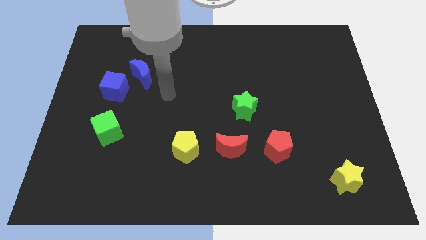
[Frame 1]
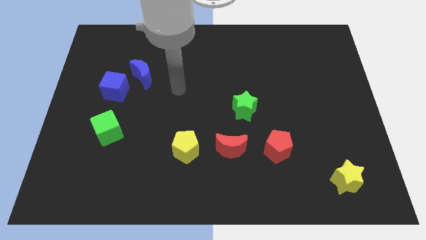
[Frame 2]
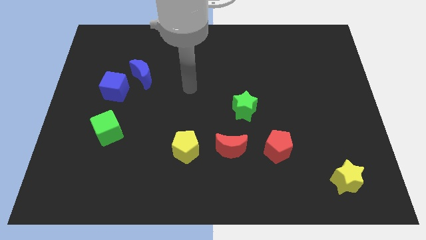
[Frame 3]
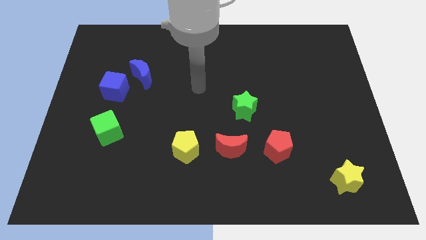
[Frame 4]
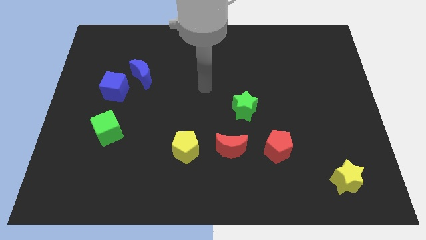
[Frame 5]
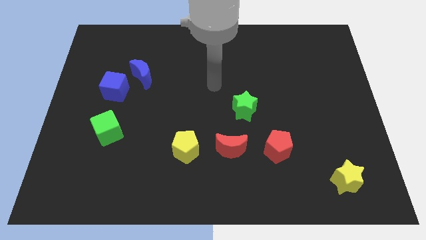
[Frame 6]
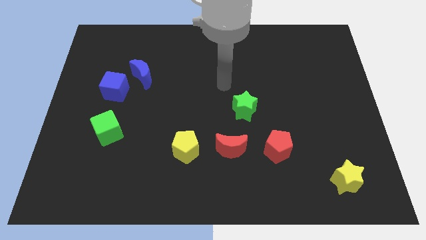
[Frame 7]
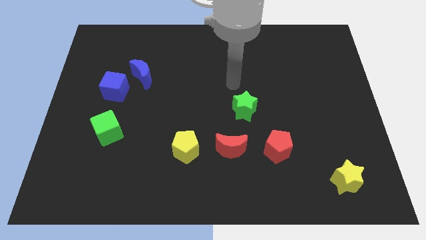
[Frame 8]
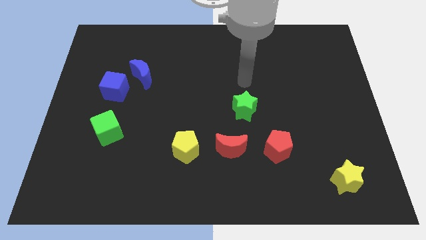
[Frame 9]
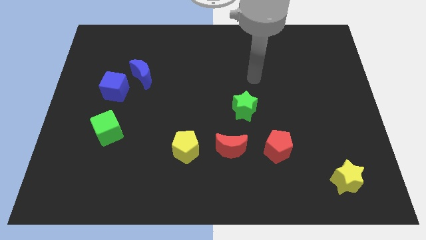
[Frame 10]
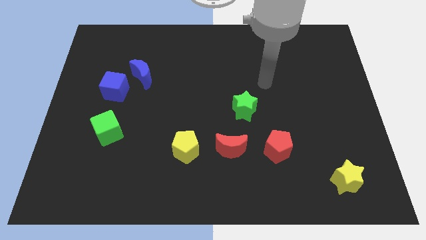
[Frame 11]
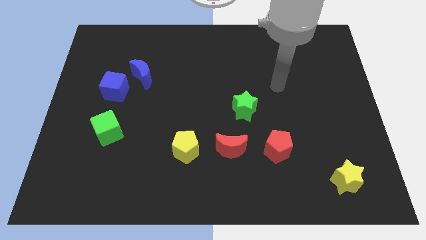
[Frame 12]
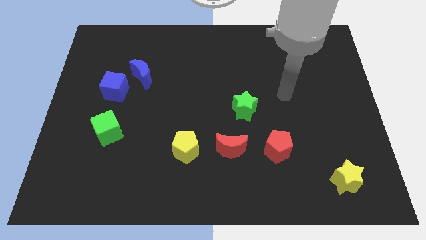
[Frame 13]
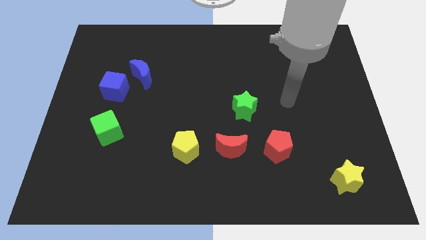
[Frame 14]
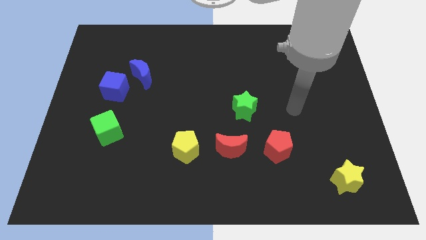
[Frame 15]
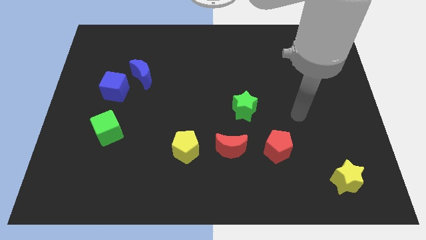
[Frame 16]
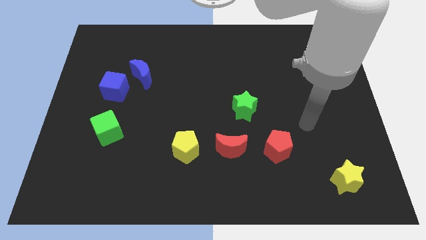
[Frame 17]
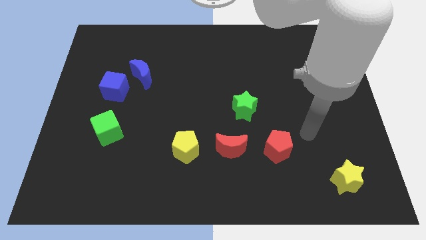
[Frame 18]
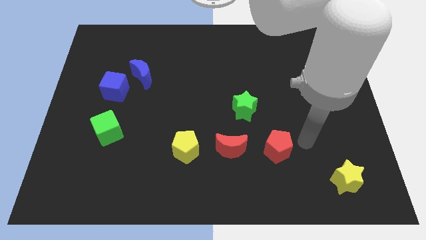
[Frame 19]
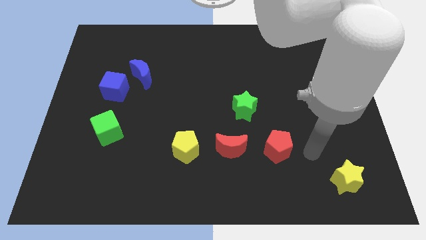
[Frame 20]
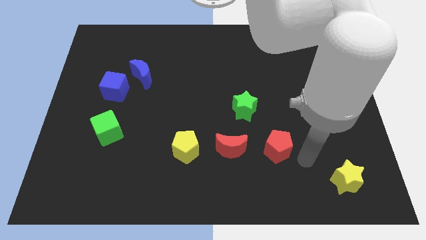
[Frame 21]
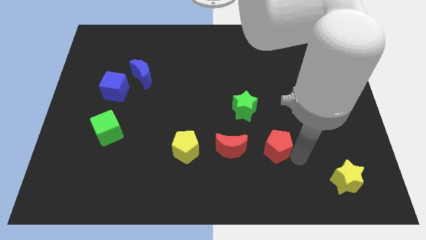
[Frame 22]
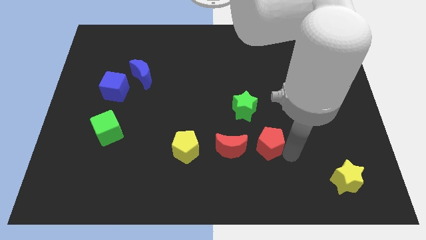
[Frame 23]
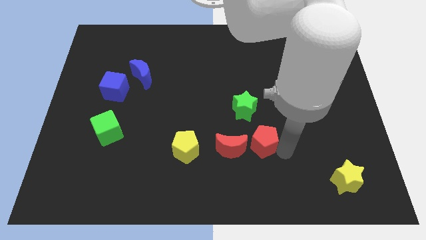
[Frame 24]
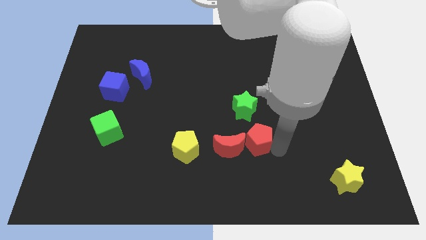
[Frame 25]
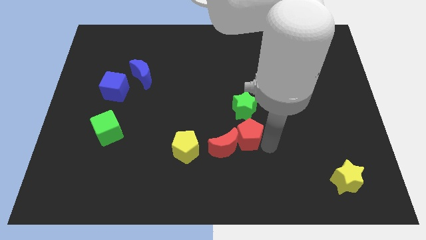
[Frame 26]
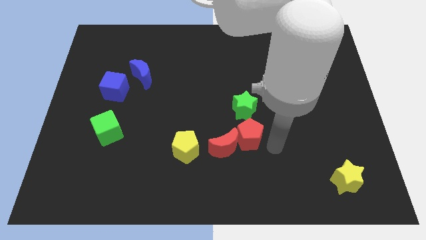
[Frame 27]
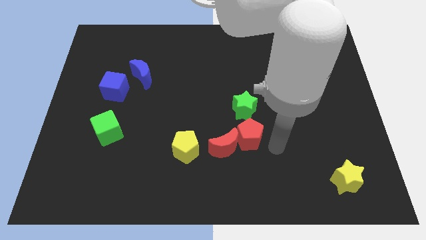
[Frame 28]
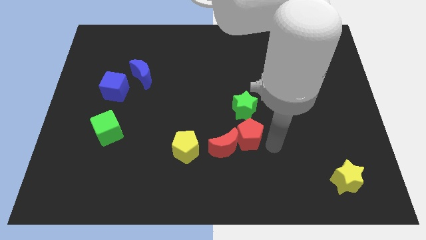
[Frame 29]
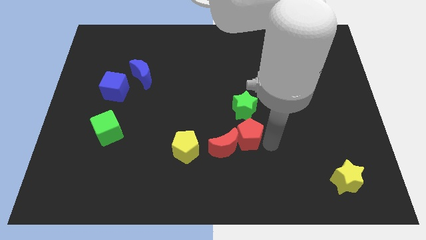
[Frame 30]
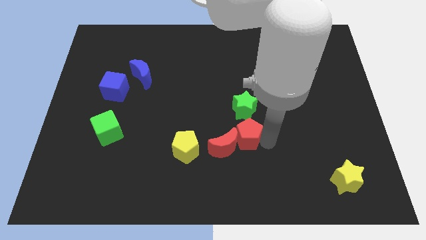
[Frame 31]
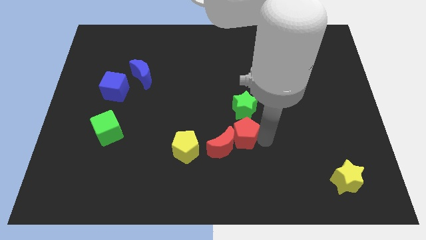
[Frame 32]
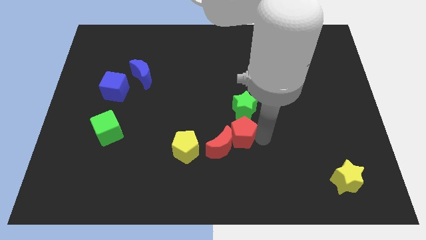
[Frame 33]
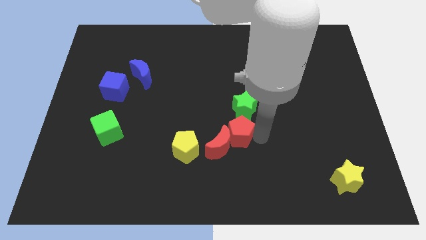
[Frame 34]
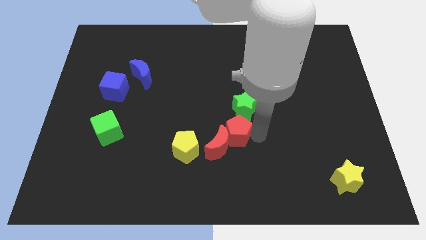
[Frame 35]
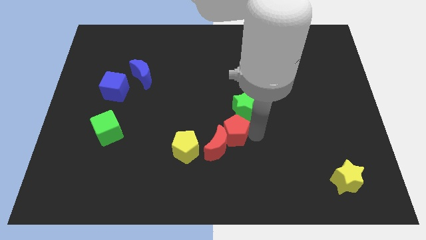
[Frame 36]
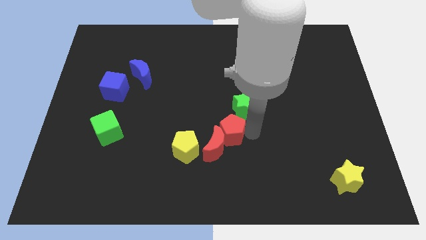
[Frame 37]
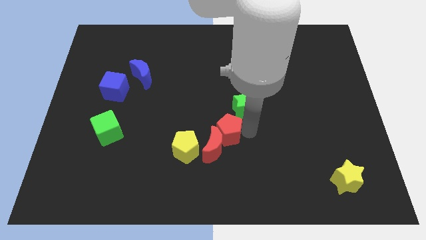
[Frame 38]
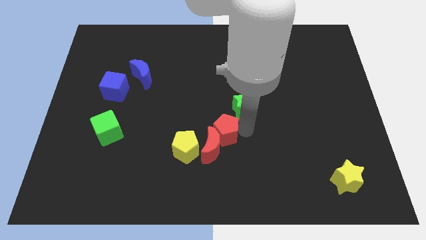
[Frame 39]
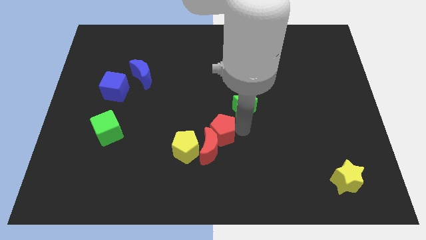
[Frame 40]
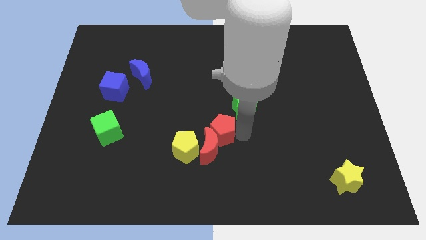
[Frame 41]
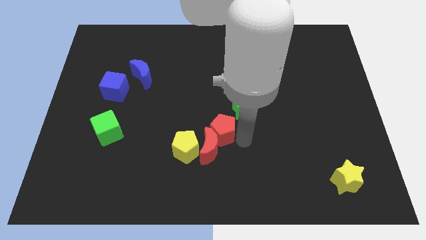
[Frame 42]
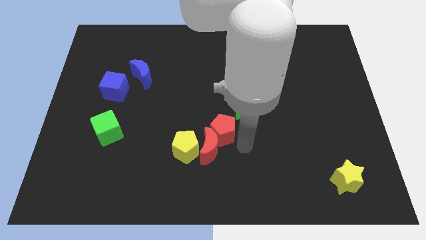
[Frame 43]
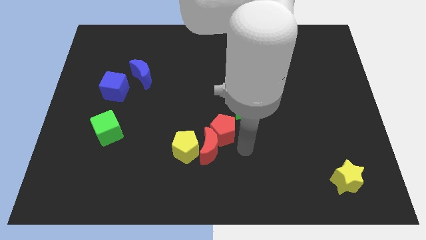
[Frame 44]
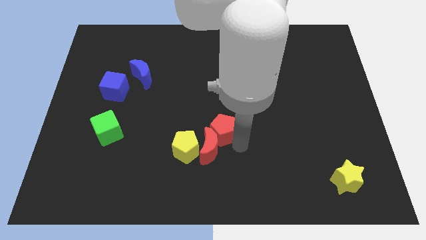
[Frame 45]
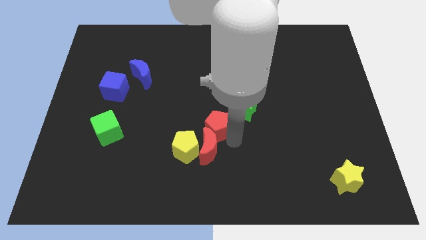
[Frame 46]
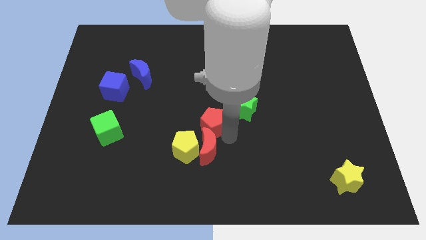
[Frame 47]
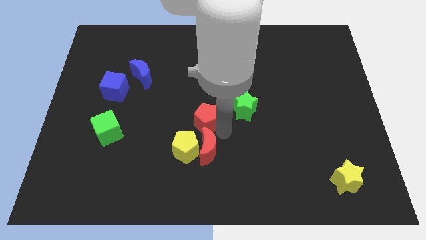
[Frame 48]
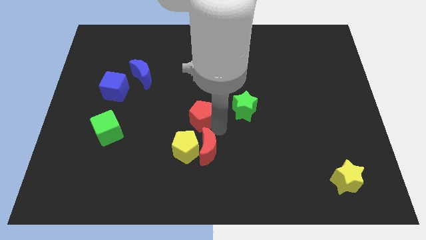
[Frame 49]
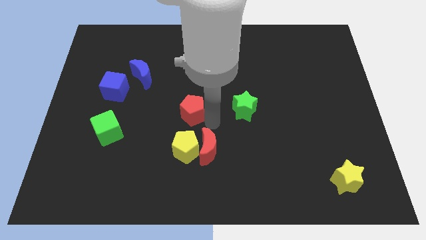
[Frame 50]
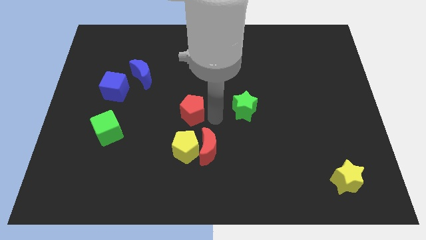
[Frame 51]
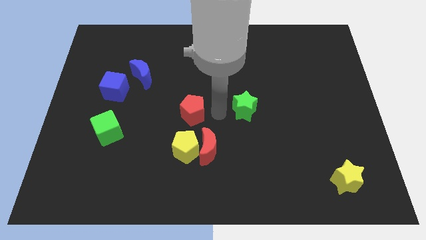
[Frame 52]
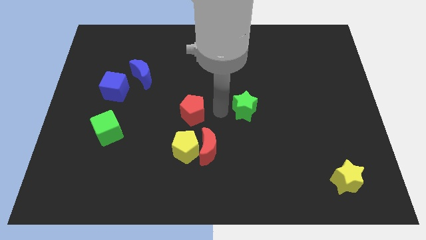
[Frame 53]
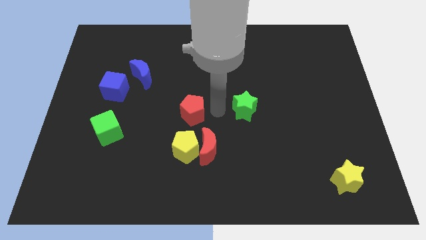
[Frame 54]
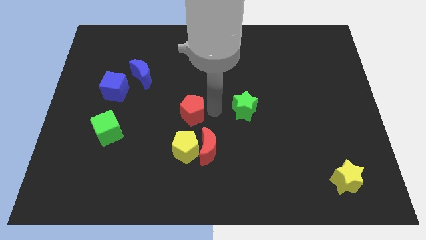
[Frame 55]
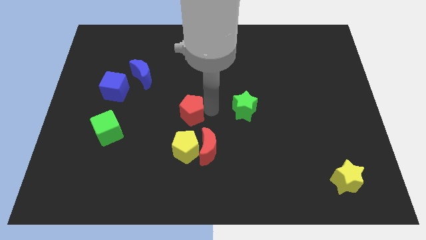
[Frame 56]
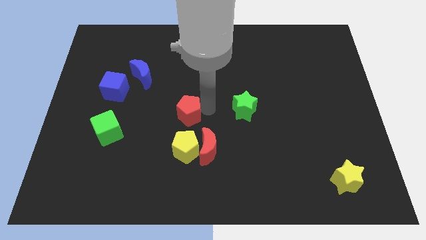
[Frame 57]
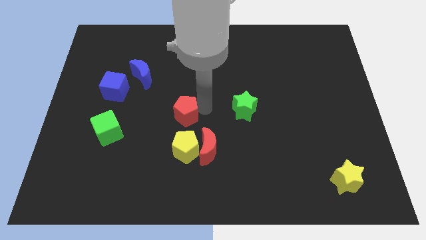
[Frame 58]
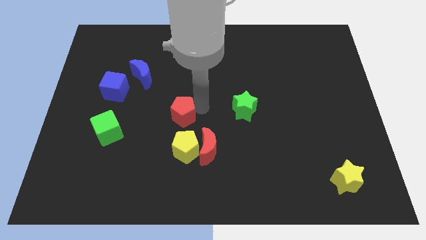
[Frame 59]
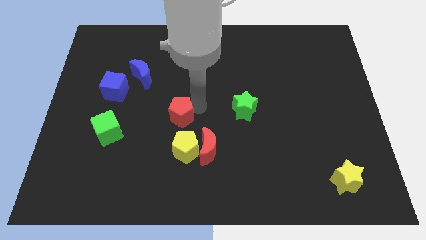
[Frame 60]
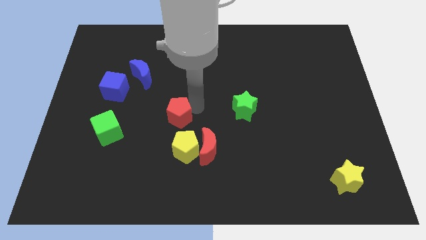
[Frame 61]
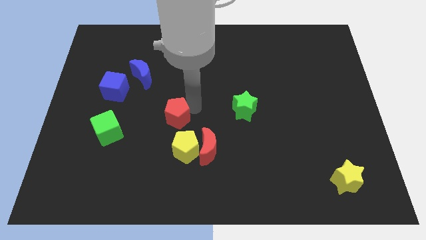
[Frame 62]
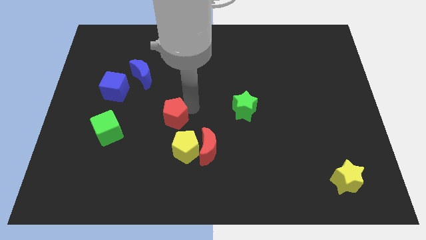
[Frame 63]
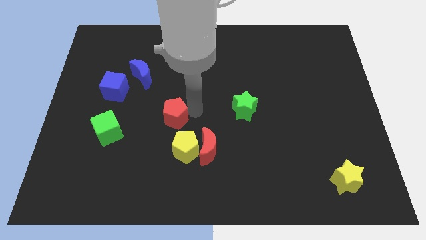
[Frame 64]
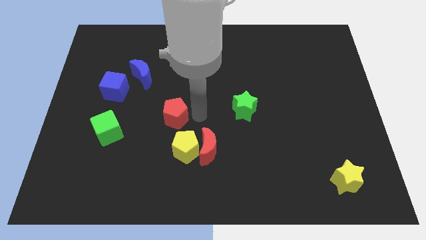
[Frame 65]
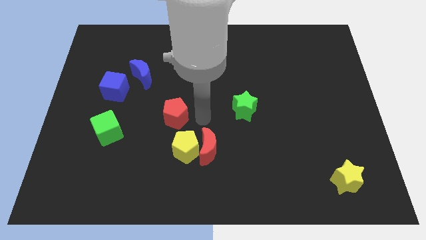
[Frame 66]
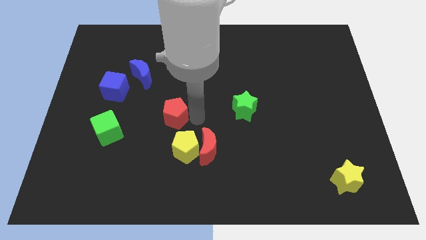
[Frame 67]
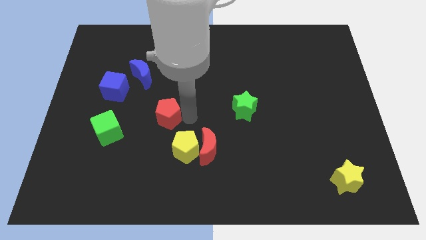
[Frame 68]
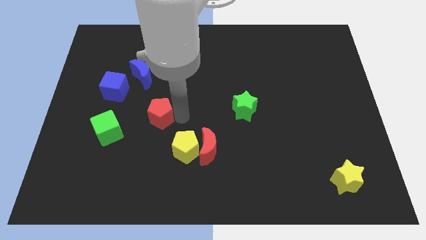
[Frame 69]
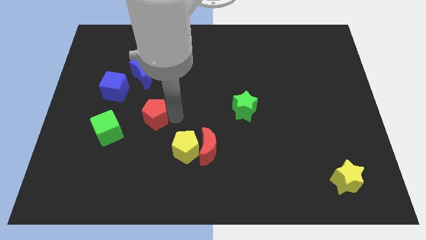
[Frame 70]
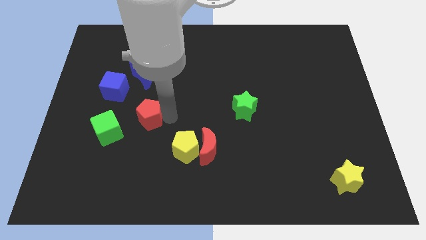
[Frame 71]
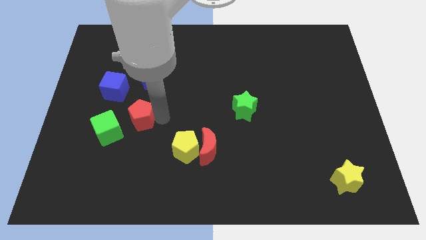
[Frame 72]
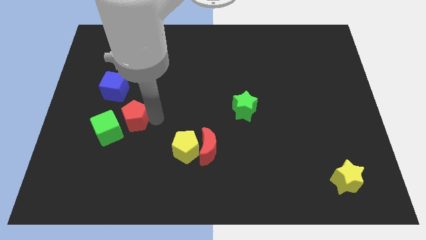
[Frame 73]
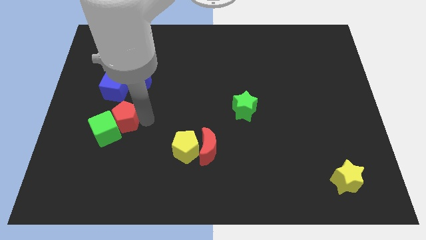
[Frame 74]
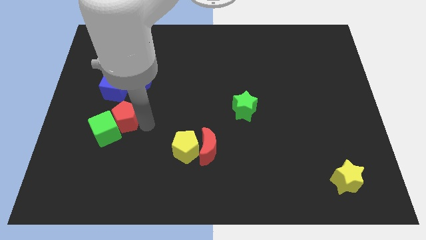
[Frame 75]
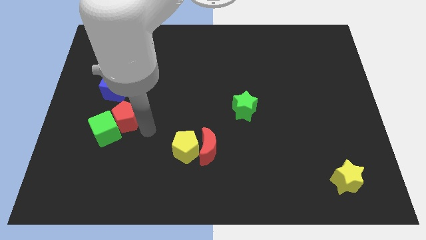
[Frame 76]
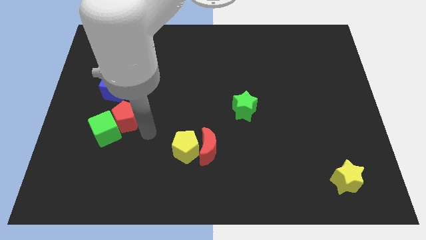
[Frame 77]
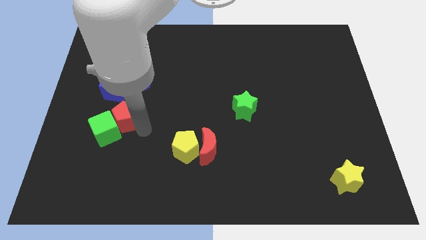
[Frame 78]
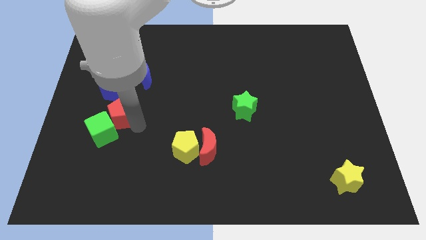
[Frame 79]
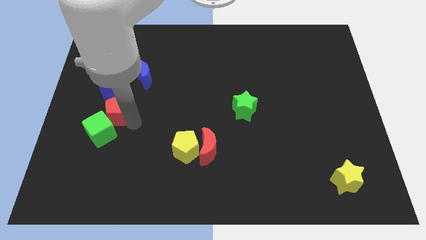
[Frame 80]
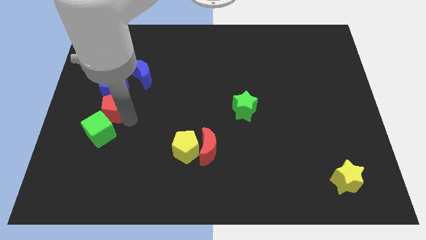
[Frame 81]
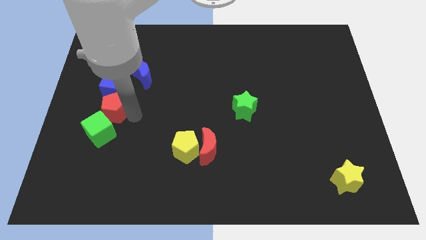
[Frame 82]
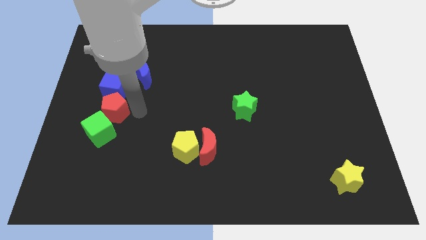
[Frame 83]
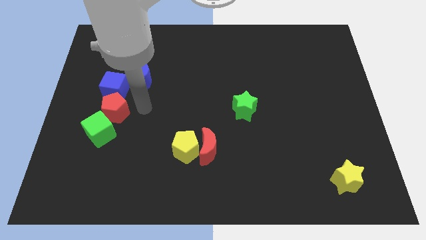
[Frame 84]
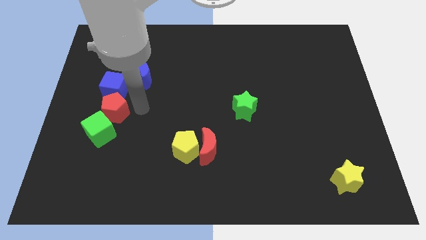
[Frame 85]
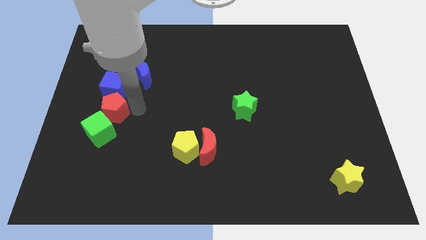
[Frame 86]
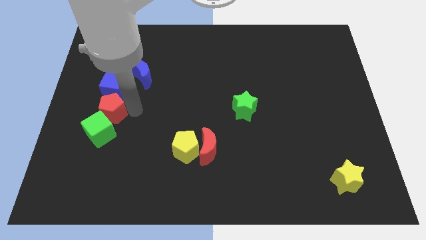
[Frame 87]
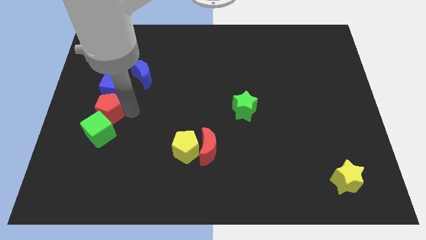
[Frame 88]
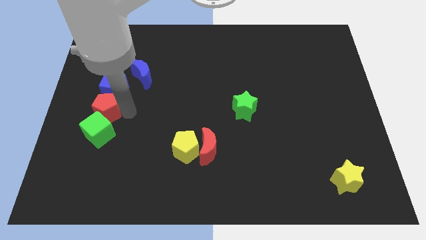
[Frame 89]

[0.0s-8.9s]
push the red pentagon diagonally up and to the left of the green cube
